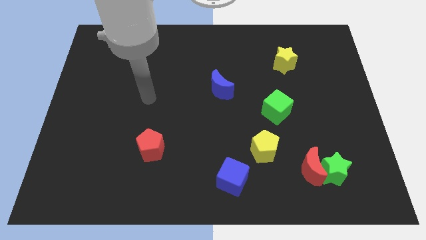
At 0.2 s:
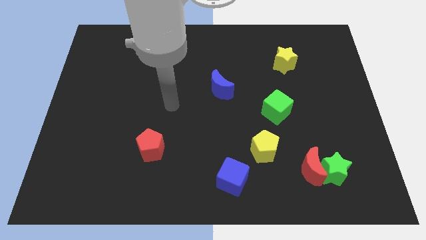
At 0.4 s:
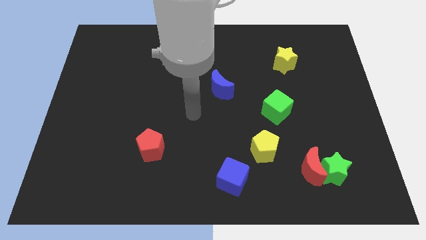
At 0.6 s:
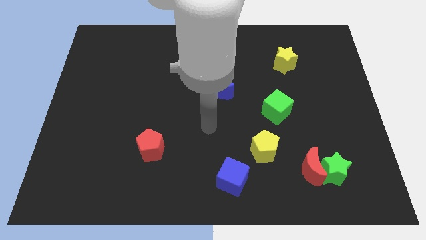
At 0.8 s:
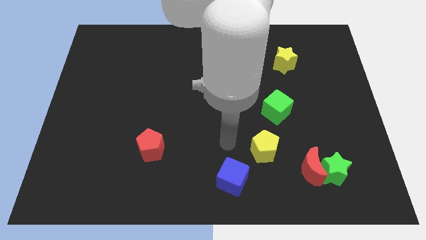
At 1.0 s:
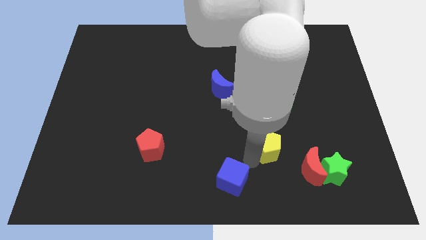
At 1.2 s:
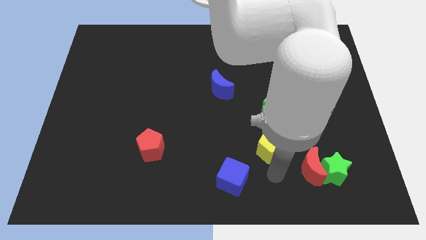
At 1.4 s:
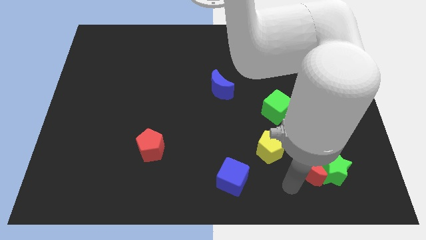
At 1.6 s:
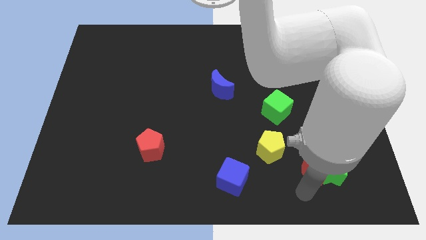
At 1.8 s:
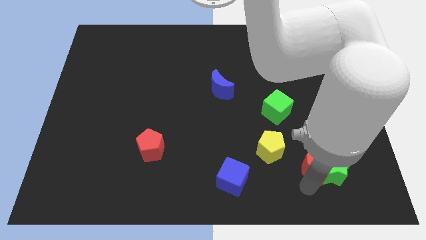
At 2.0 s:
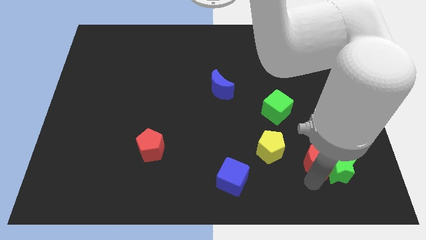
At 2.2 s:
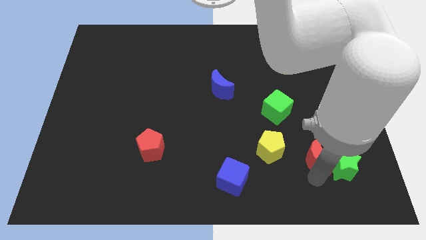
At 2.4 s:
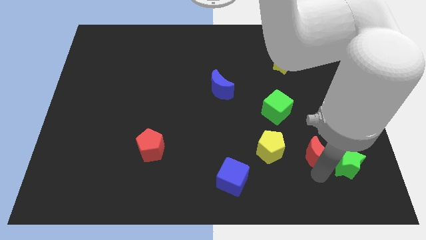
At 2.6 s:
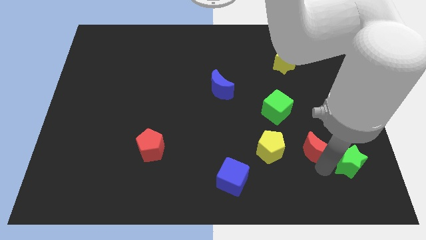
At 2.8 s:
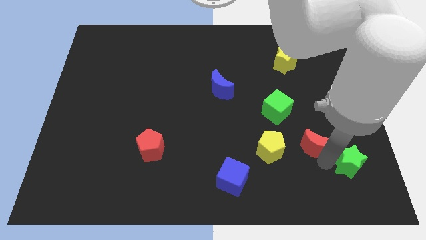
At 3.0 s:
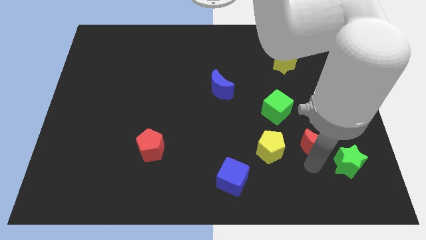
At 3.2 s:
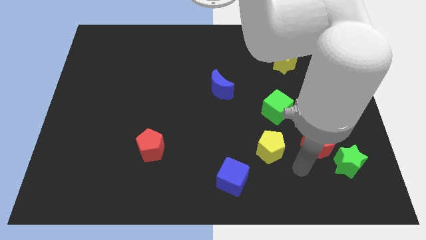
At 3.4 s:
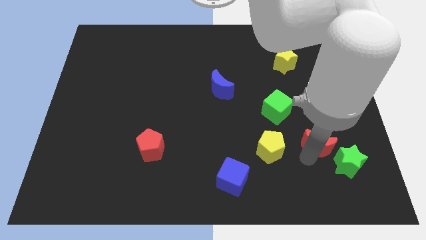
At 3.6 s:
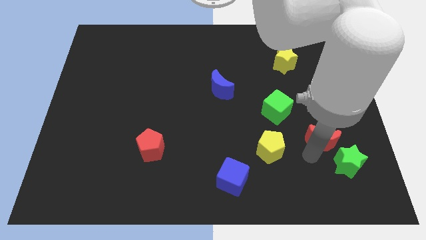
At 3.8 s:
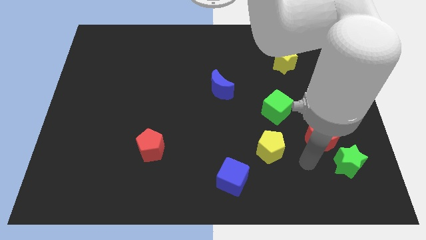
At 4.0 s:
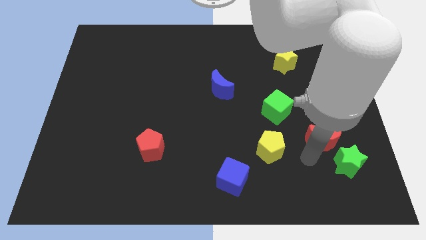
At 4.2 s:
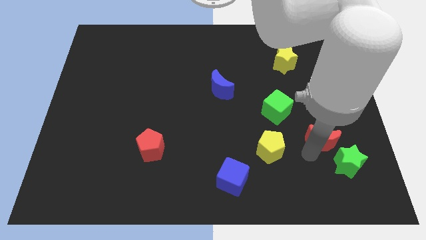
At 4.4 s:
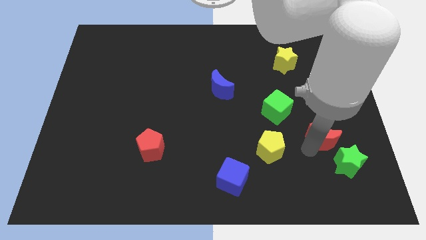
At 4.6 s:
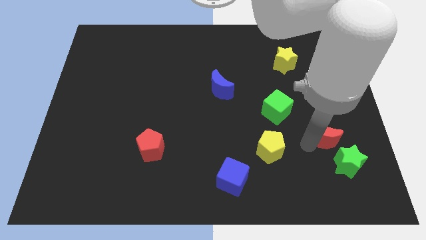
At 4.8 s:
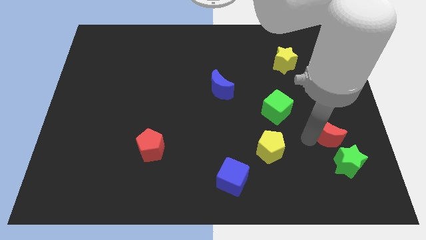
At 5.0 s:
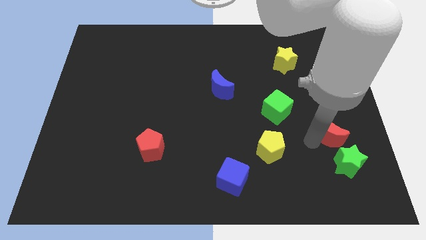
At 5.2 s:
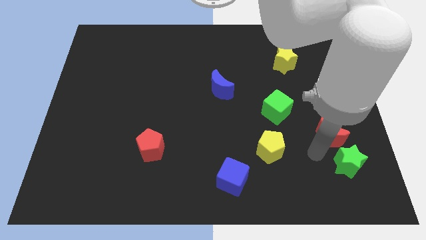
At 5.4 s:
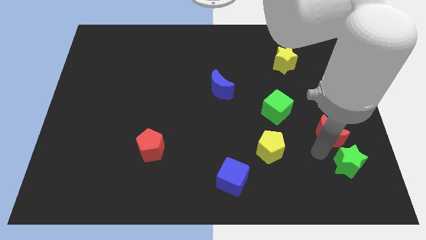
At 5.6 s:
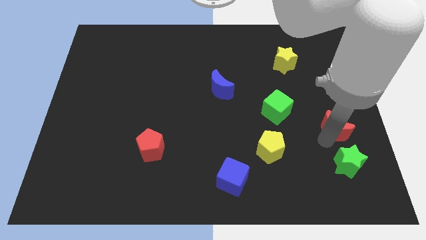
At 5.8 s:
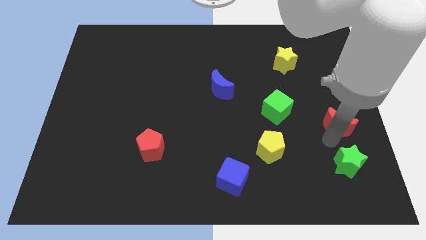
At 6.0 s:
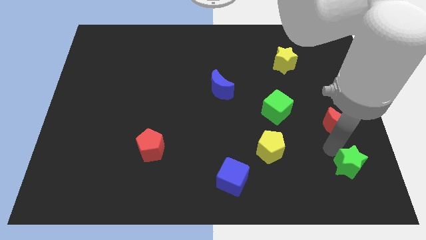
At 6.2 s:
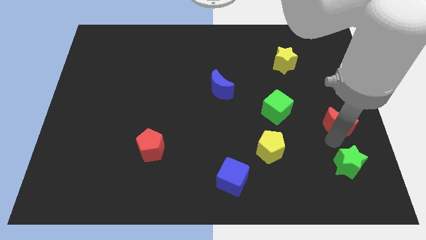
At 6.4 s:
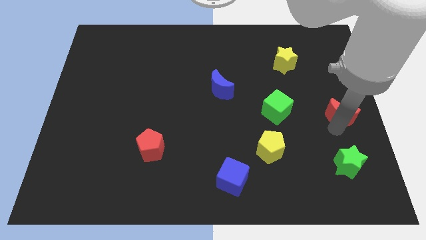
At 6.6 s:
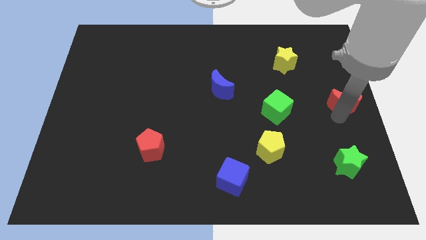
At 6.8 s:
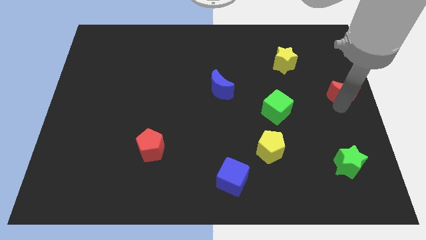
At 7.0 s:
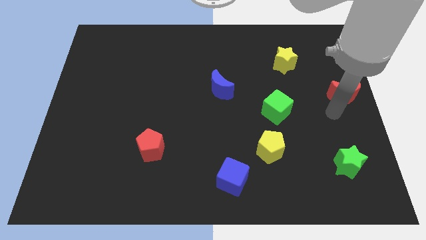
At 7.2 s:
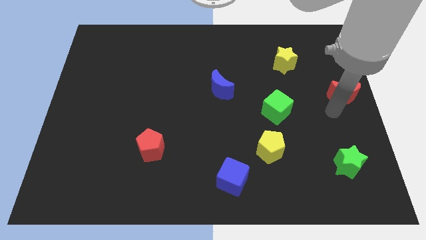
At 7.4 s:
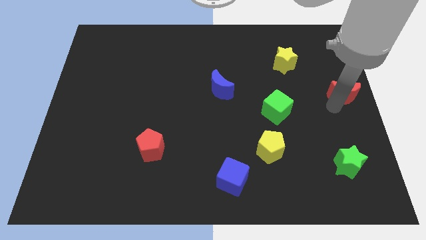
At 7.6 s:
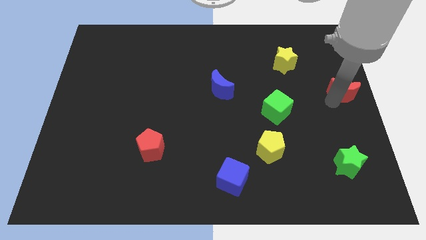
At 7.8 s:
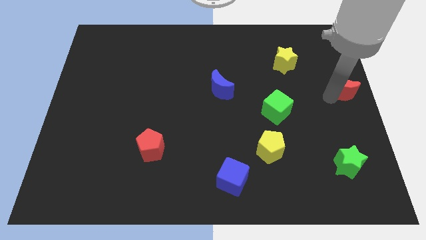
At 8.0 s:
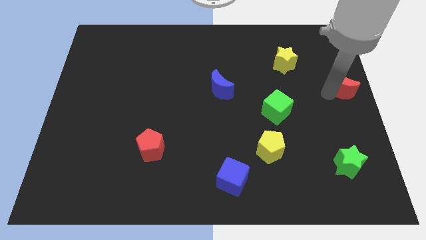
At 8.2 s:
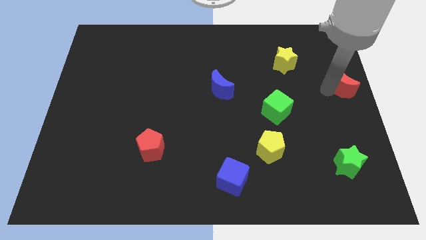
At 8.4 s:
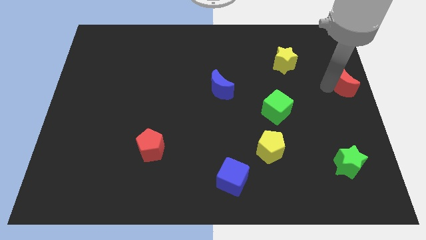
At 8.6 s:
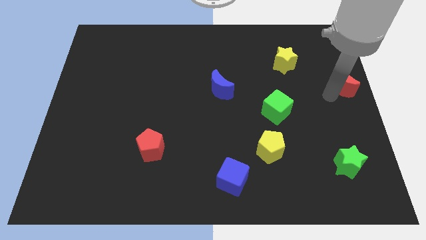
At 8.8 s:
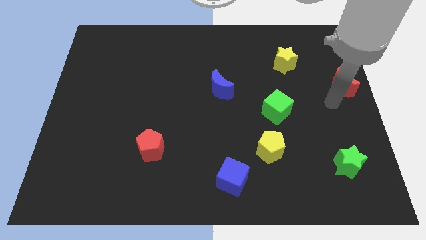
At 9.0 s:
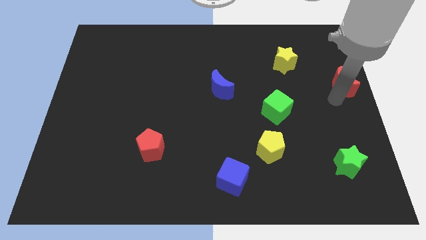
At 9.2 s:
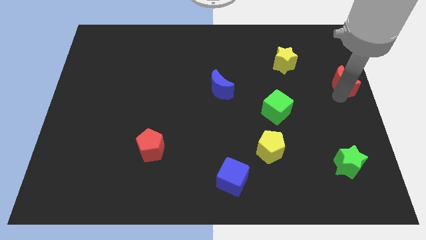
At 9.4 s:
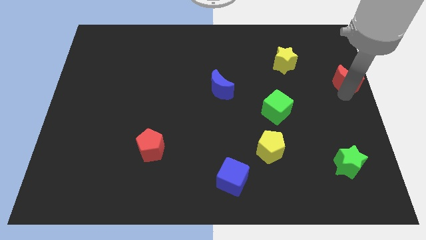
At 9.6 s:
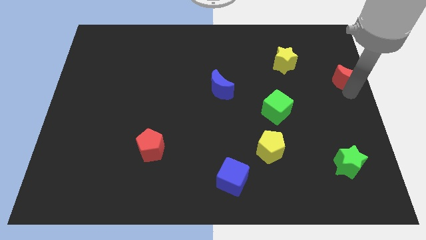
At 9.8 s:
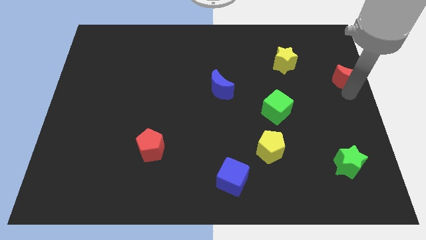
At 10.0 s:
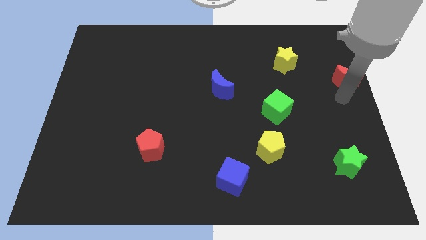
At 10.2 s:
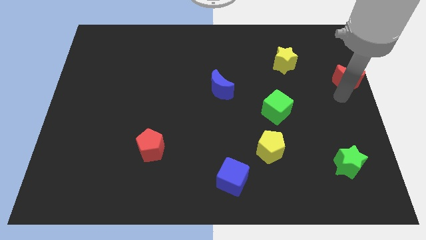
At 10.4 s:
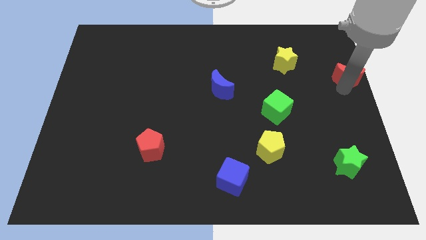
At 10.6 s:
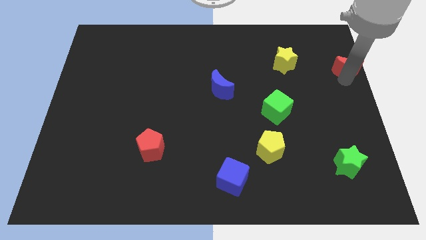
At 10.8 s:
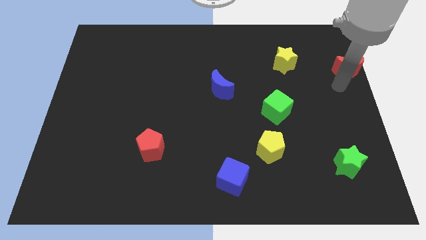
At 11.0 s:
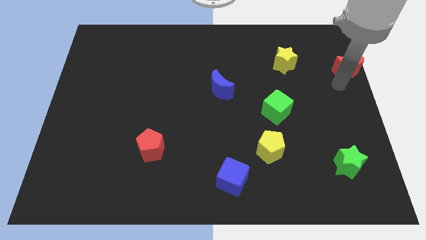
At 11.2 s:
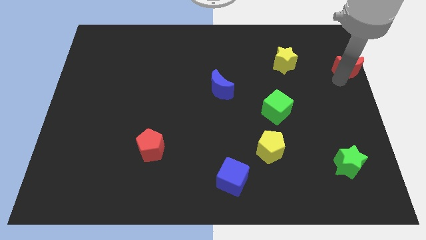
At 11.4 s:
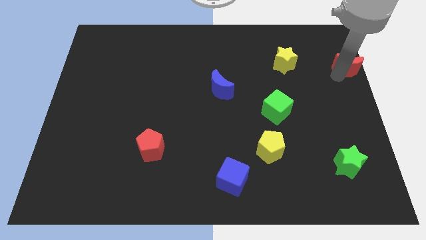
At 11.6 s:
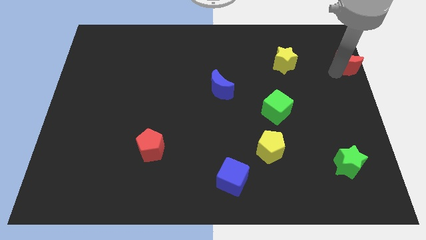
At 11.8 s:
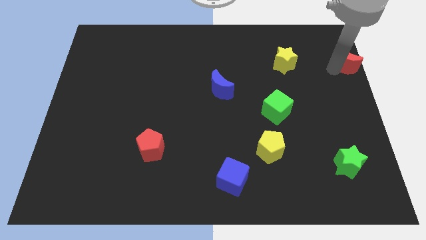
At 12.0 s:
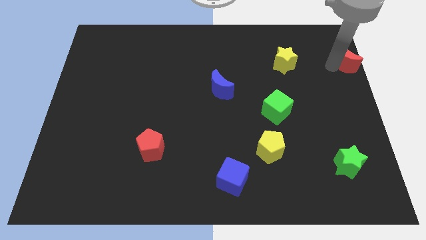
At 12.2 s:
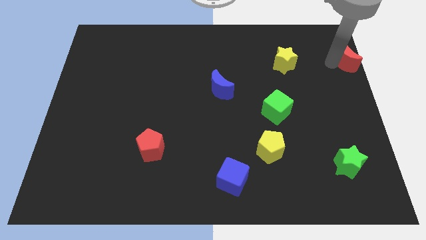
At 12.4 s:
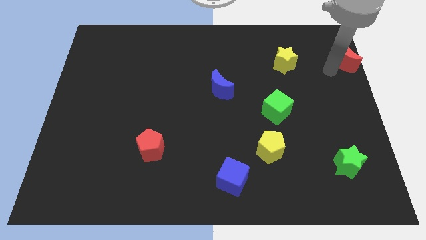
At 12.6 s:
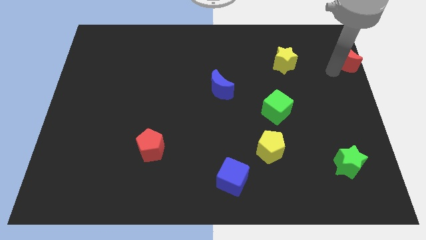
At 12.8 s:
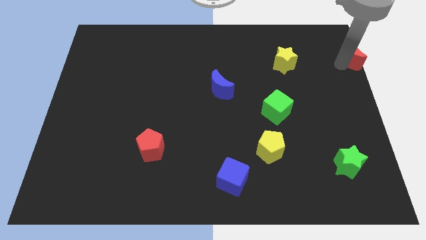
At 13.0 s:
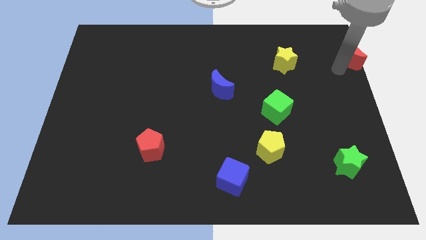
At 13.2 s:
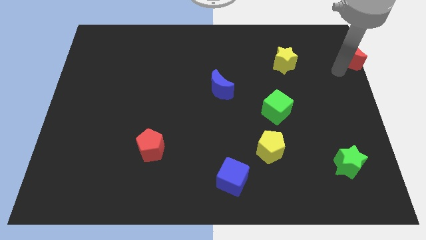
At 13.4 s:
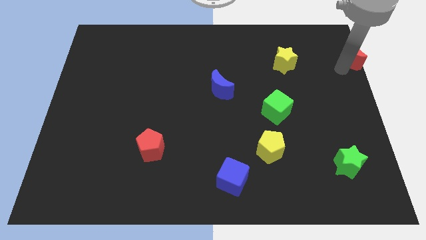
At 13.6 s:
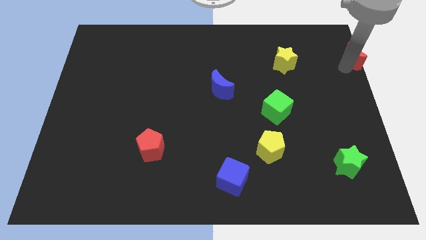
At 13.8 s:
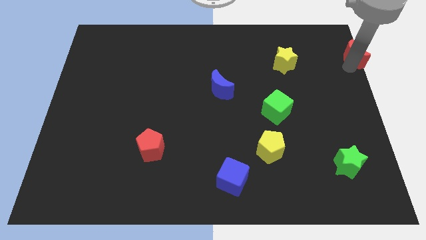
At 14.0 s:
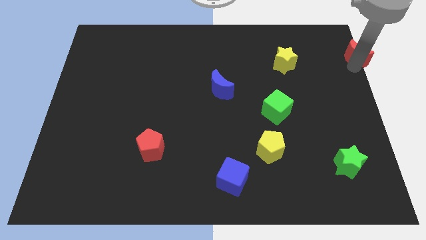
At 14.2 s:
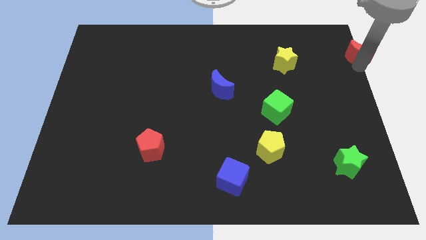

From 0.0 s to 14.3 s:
push the red moon to the top right of the board

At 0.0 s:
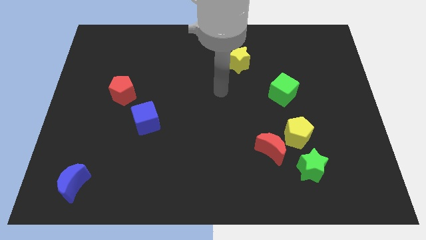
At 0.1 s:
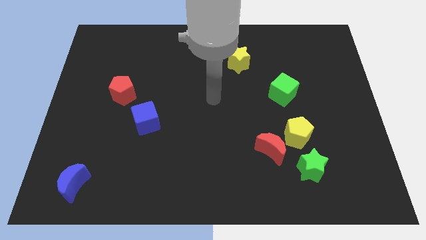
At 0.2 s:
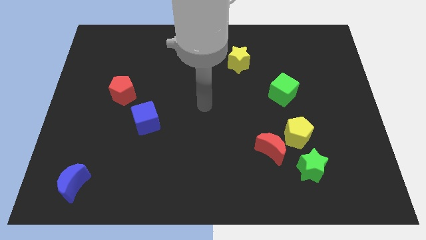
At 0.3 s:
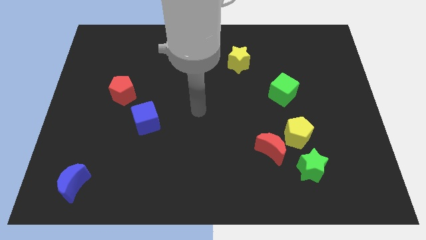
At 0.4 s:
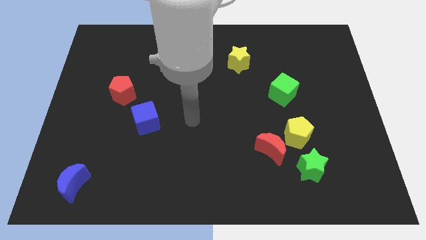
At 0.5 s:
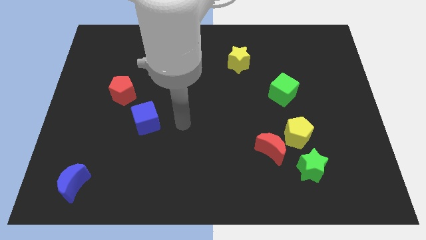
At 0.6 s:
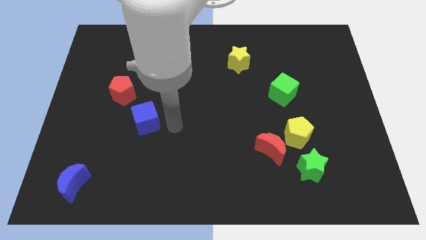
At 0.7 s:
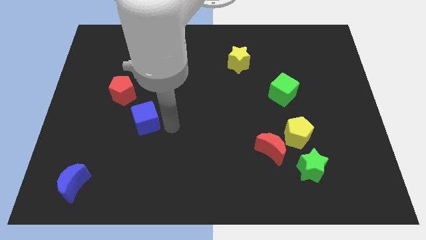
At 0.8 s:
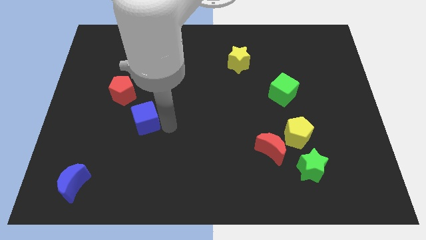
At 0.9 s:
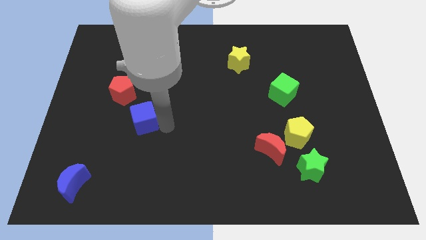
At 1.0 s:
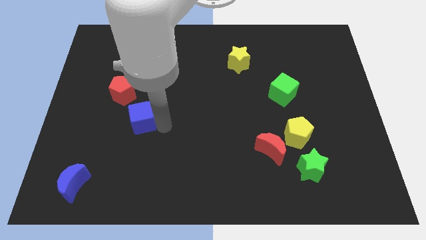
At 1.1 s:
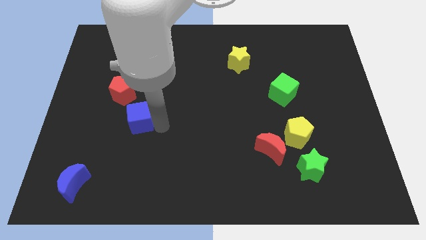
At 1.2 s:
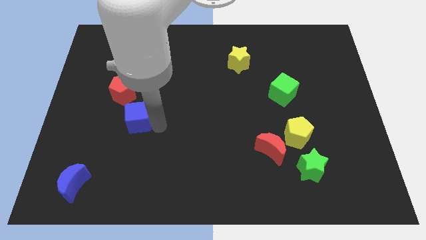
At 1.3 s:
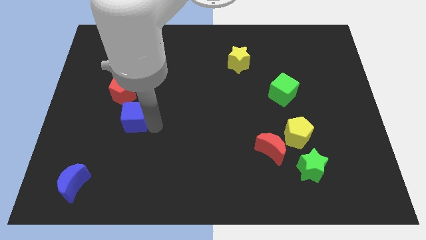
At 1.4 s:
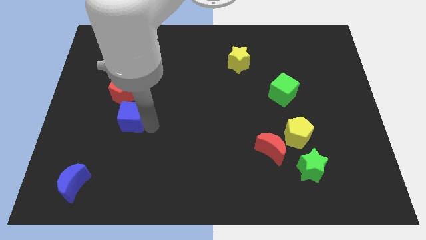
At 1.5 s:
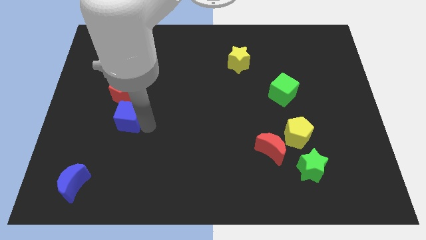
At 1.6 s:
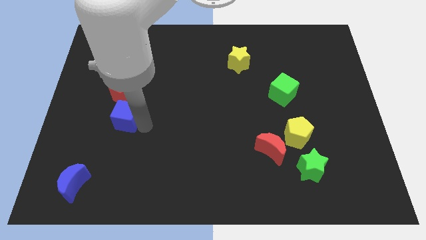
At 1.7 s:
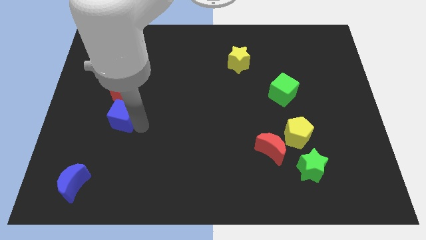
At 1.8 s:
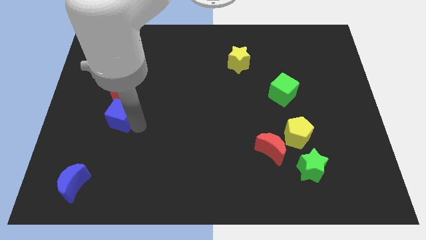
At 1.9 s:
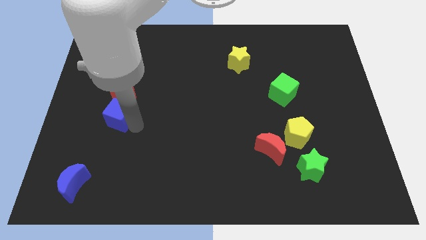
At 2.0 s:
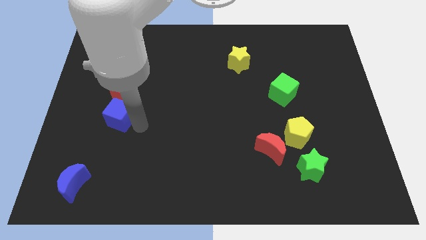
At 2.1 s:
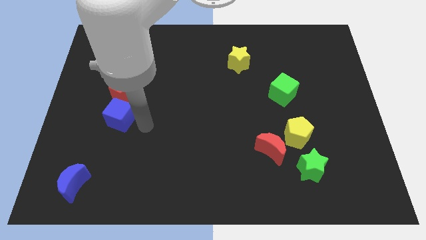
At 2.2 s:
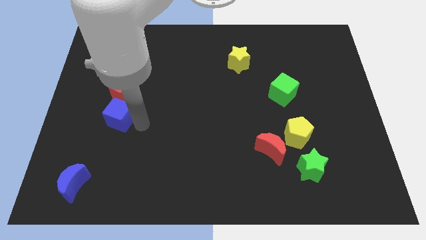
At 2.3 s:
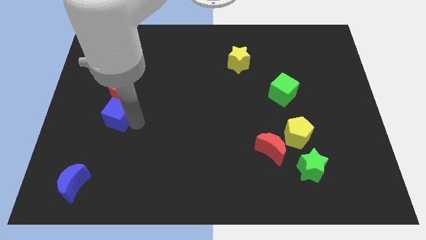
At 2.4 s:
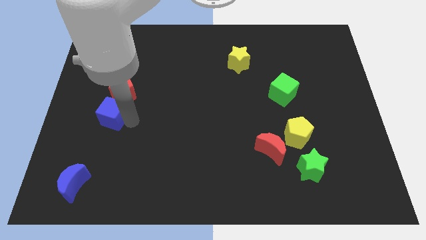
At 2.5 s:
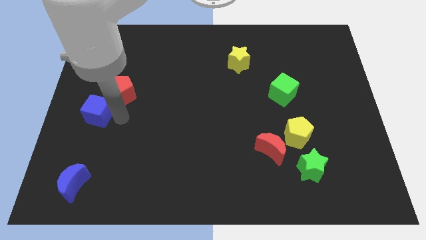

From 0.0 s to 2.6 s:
push the blue cube to the left side of the board
